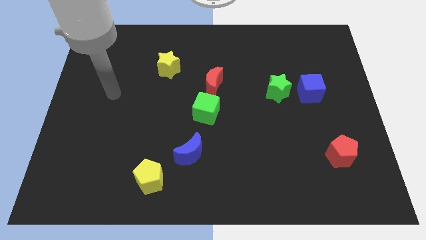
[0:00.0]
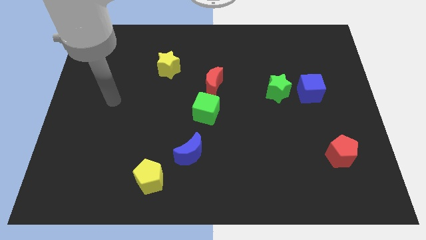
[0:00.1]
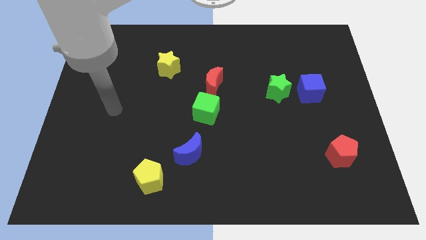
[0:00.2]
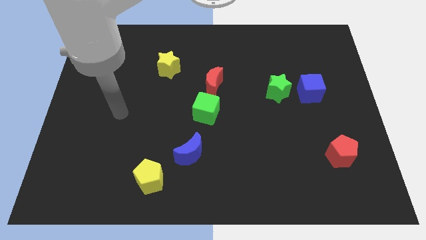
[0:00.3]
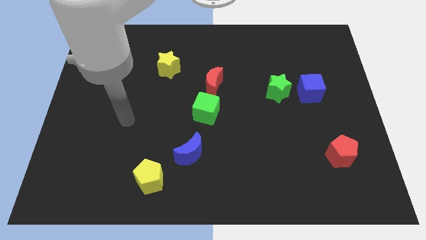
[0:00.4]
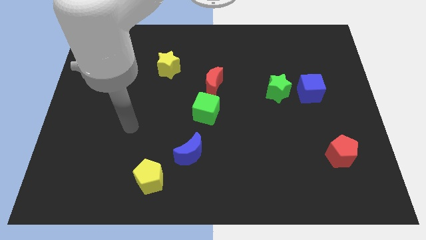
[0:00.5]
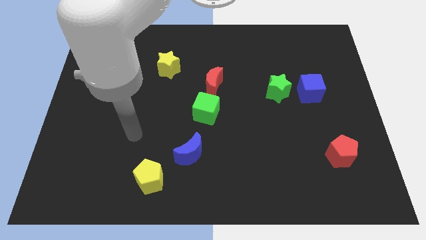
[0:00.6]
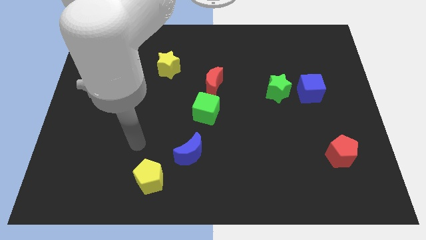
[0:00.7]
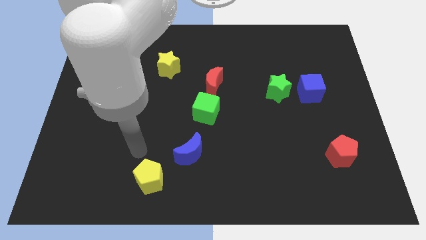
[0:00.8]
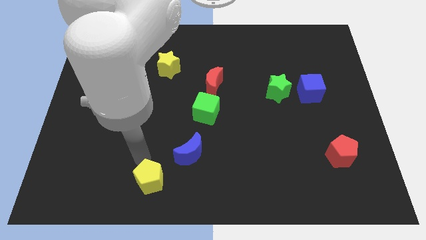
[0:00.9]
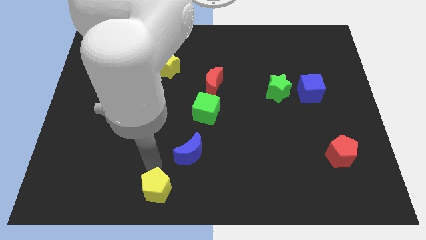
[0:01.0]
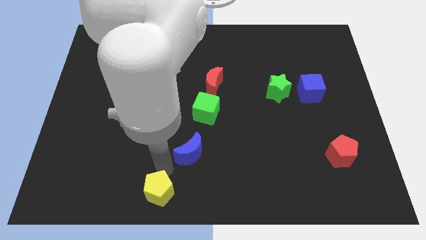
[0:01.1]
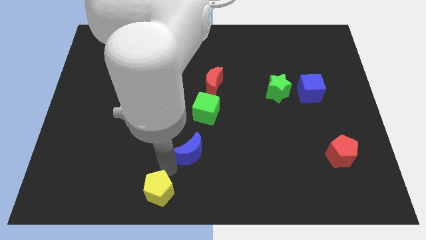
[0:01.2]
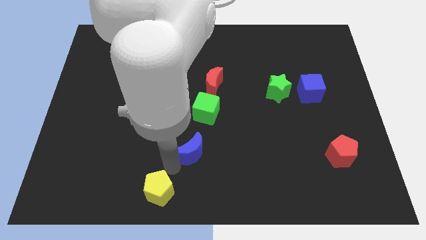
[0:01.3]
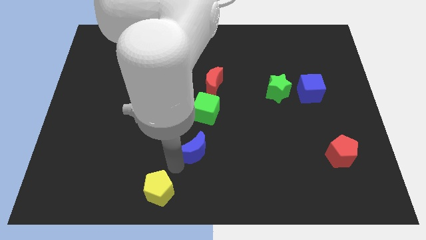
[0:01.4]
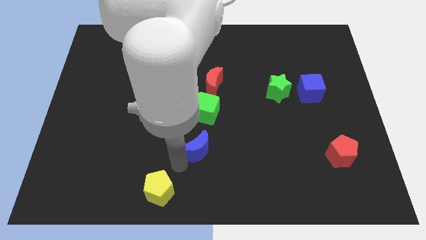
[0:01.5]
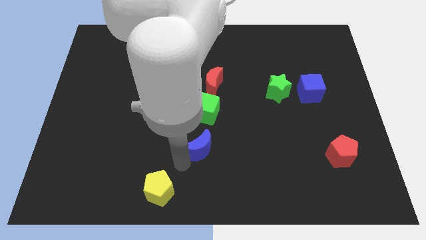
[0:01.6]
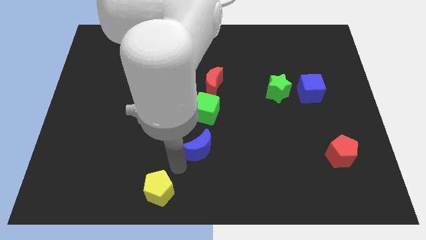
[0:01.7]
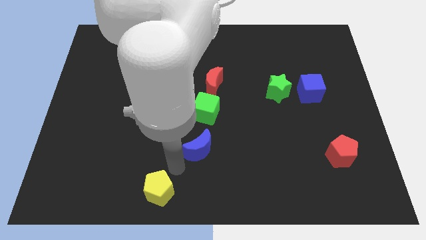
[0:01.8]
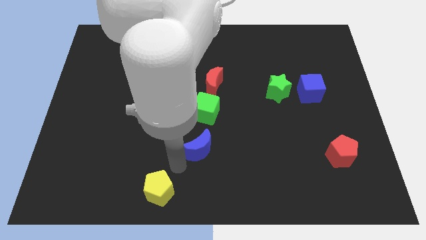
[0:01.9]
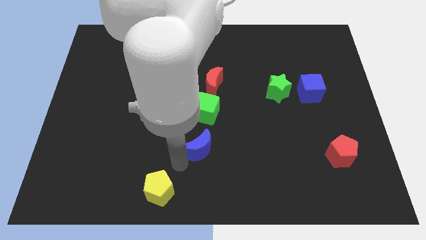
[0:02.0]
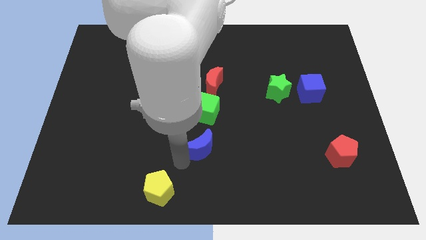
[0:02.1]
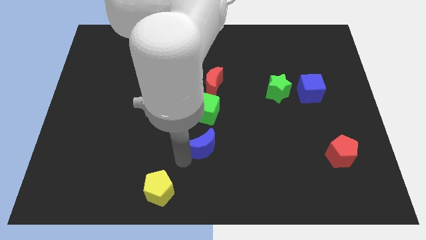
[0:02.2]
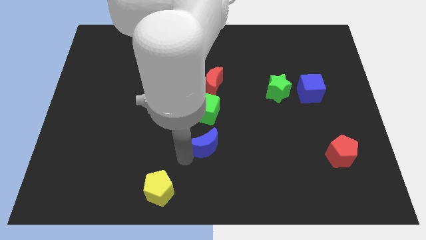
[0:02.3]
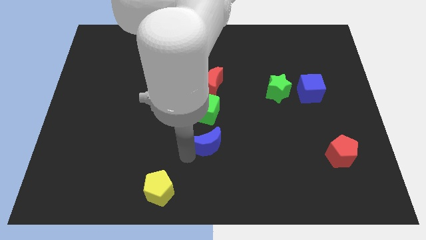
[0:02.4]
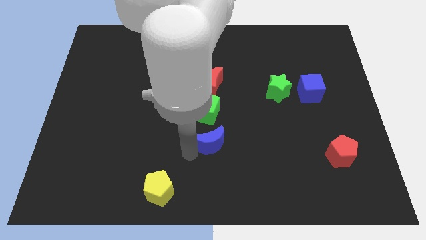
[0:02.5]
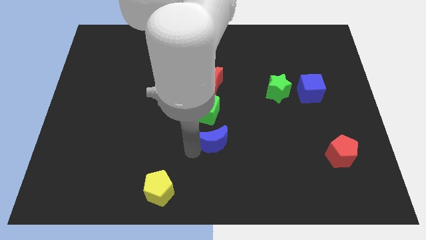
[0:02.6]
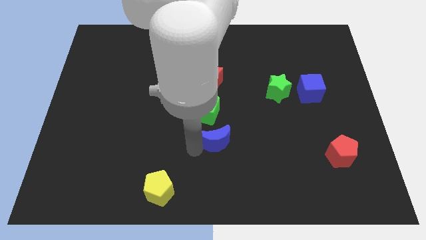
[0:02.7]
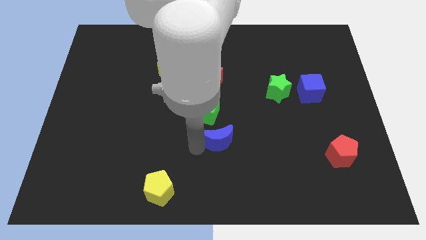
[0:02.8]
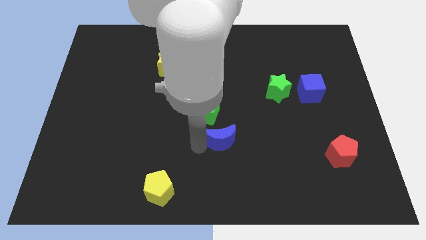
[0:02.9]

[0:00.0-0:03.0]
push the blue moon up and then right a little bit

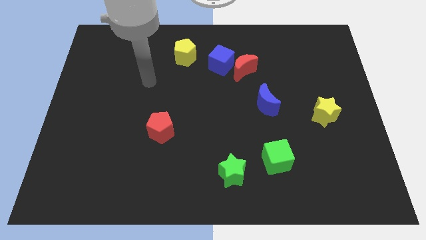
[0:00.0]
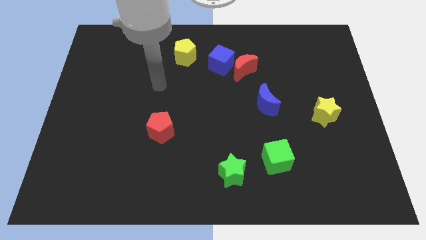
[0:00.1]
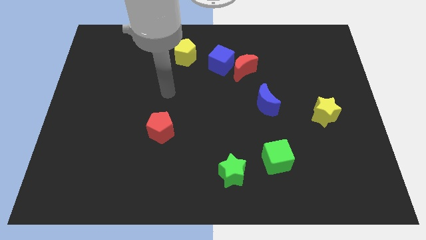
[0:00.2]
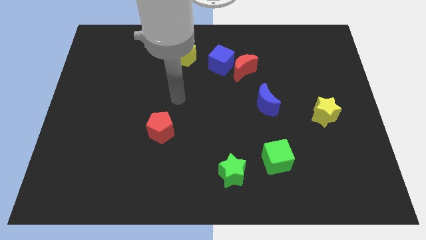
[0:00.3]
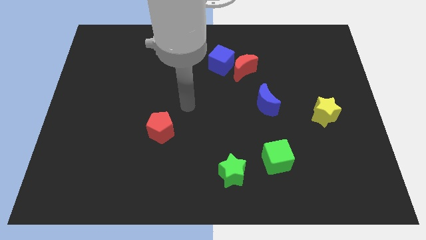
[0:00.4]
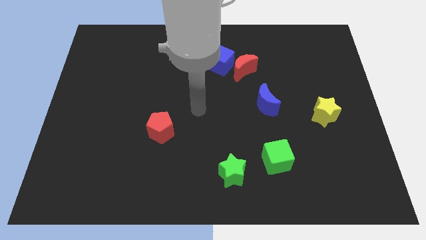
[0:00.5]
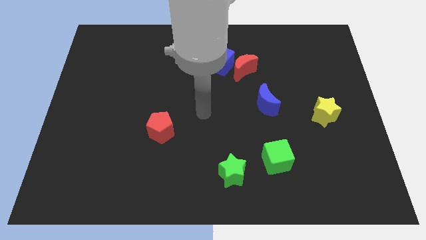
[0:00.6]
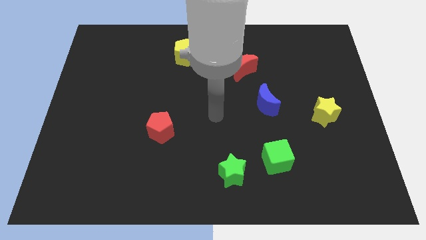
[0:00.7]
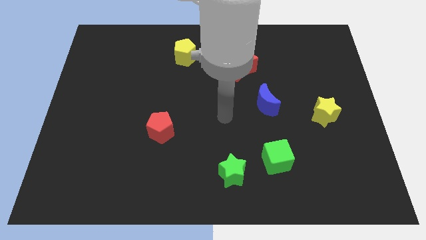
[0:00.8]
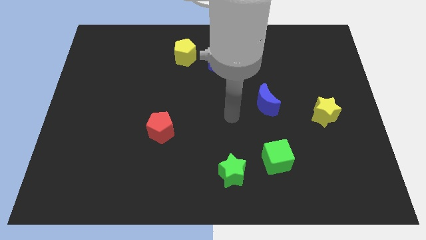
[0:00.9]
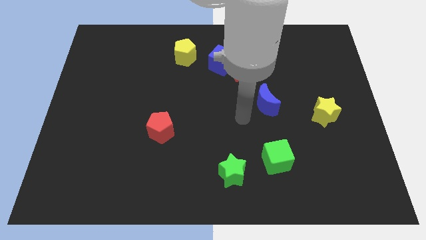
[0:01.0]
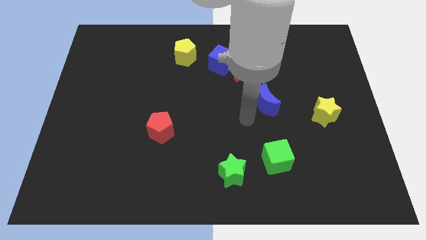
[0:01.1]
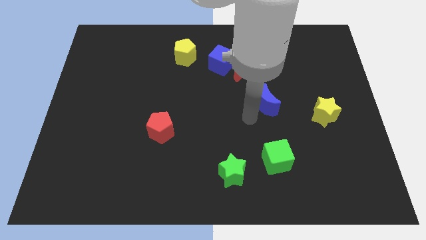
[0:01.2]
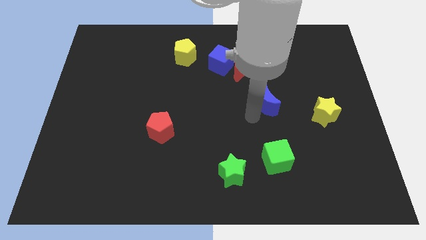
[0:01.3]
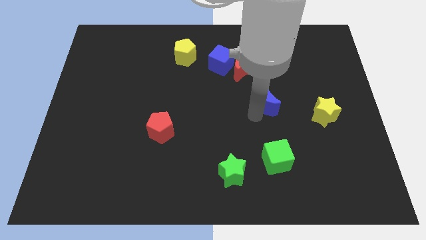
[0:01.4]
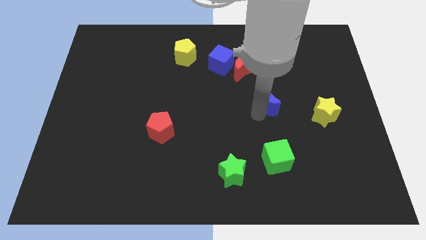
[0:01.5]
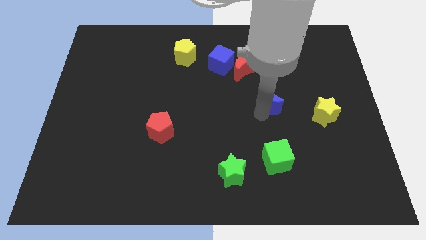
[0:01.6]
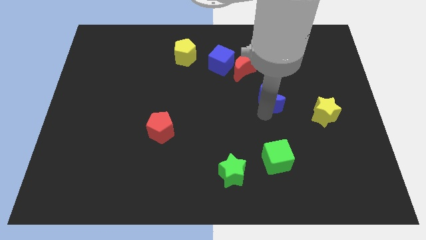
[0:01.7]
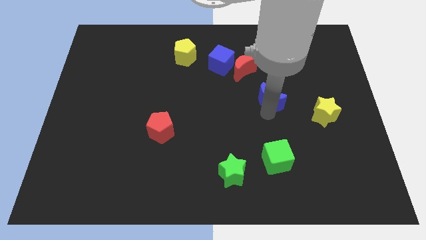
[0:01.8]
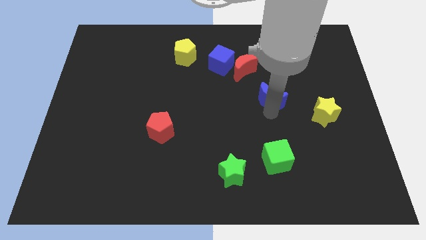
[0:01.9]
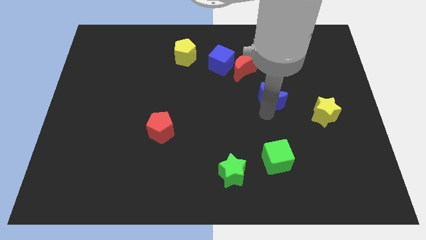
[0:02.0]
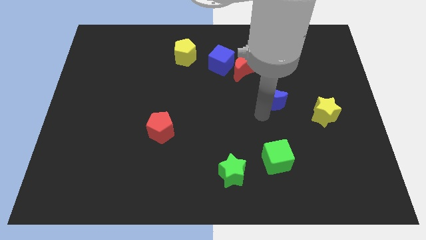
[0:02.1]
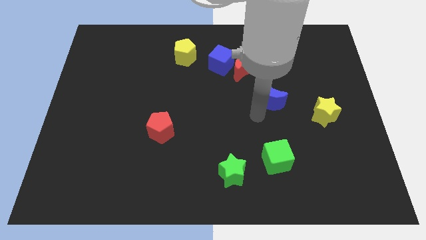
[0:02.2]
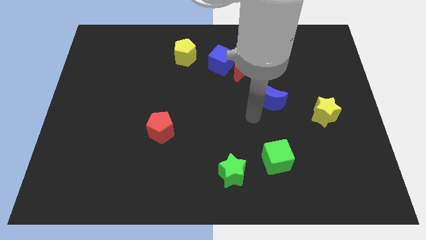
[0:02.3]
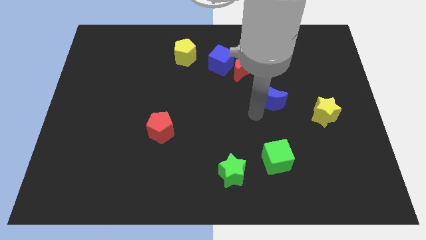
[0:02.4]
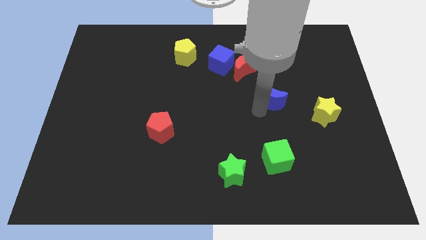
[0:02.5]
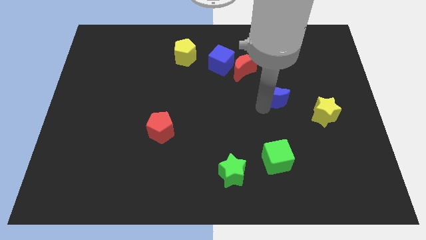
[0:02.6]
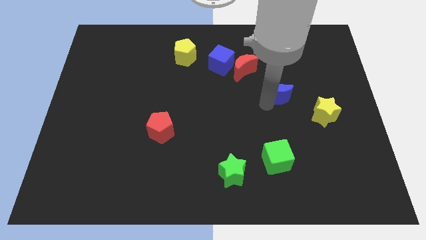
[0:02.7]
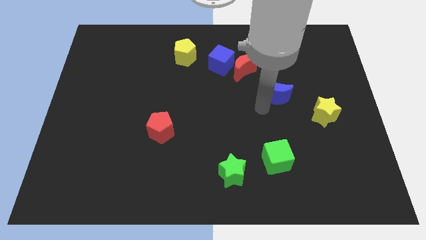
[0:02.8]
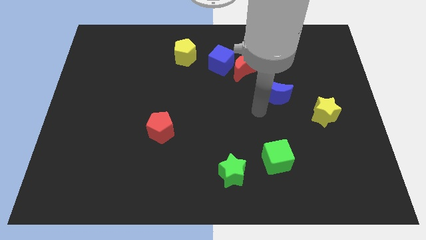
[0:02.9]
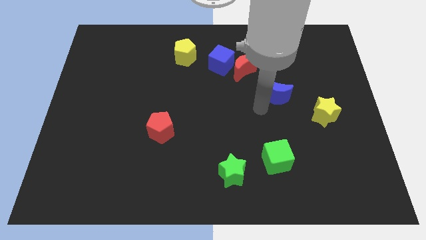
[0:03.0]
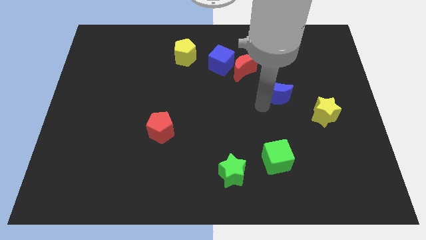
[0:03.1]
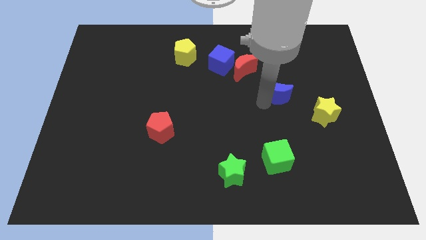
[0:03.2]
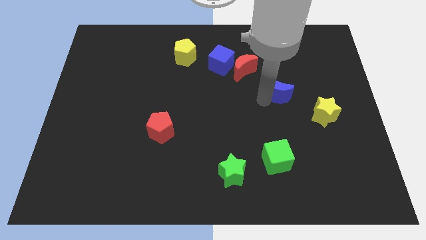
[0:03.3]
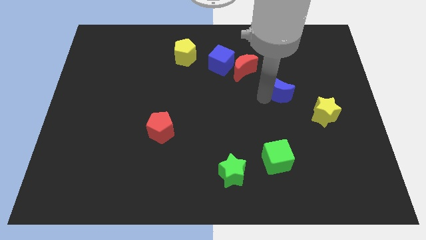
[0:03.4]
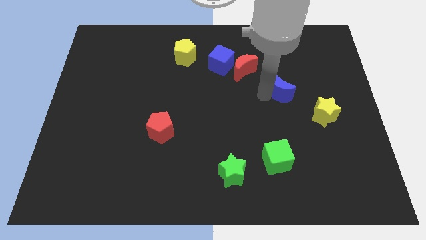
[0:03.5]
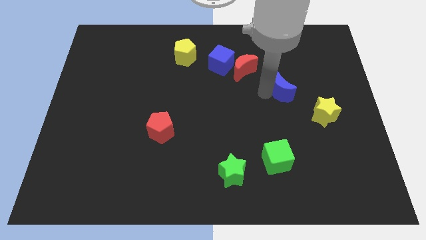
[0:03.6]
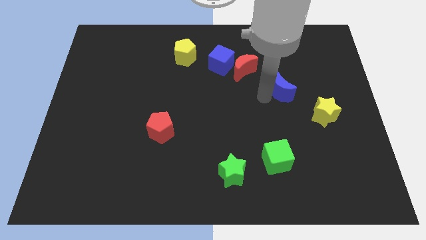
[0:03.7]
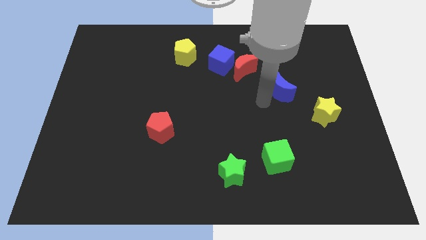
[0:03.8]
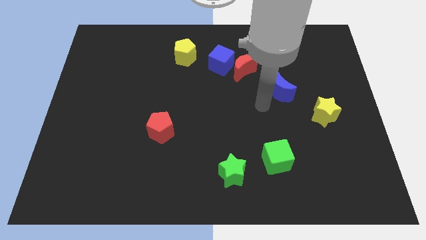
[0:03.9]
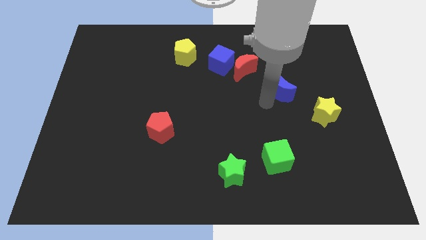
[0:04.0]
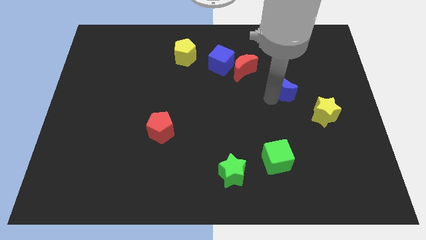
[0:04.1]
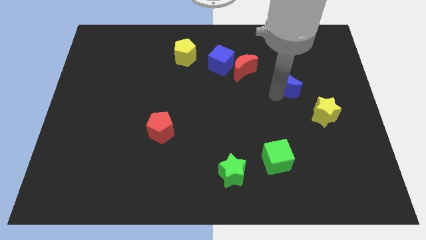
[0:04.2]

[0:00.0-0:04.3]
push the blue moon somewhat upwards and to the right

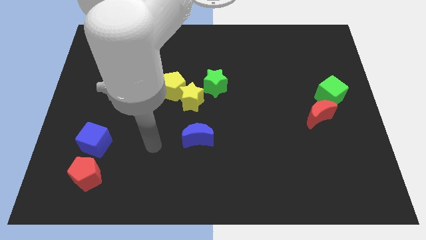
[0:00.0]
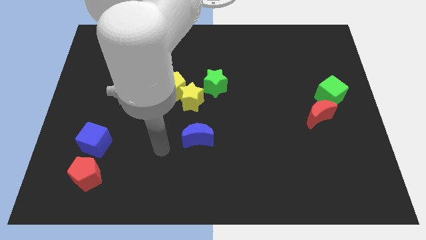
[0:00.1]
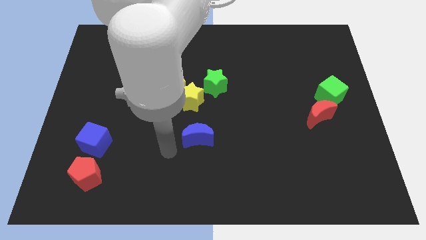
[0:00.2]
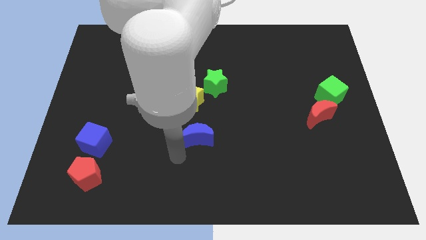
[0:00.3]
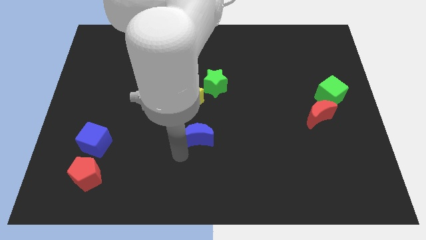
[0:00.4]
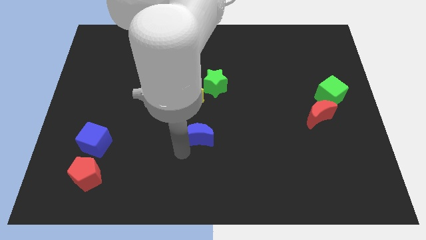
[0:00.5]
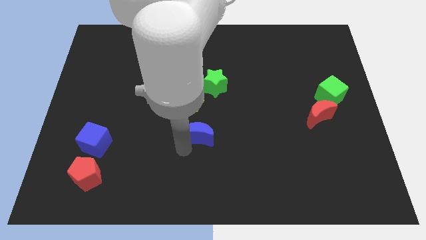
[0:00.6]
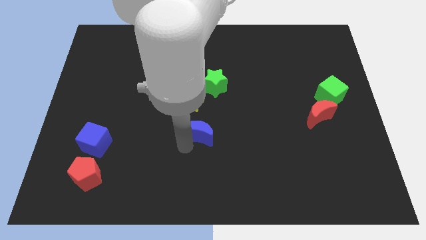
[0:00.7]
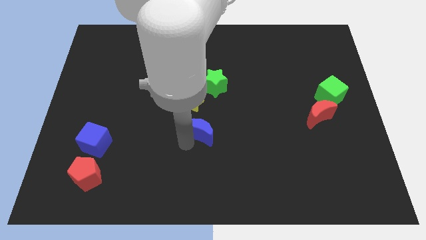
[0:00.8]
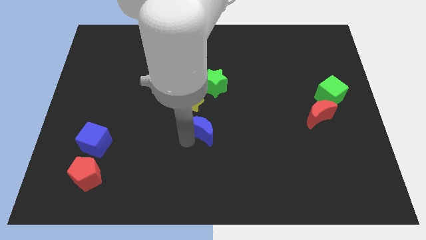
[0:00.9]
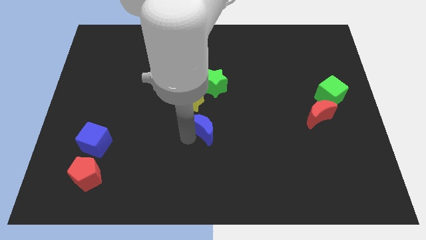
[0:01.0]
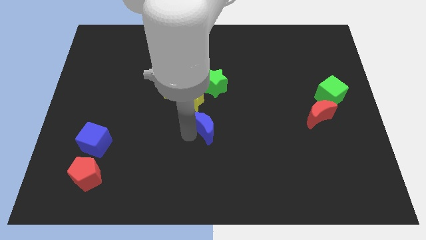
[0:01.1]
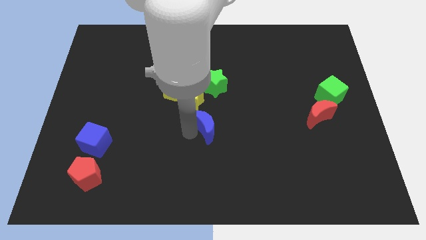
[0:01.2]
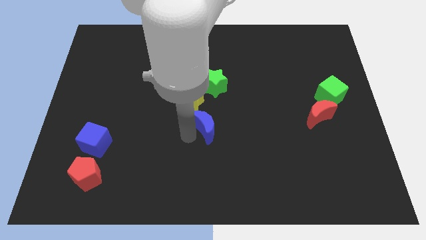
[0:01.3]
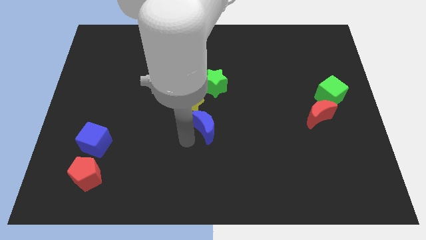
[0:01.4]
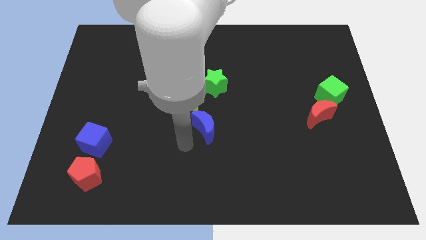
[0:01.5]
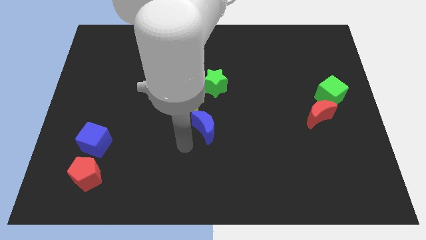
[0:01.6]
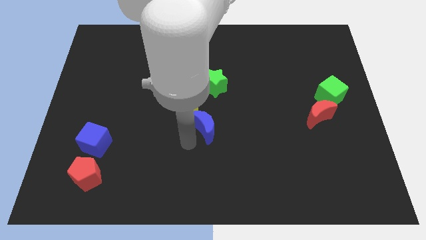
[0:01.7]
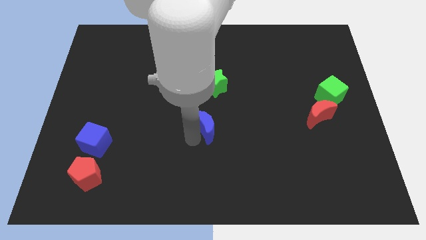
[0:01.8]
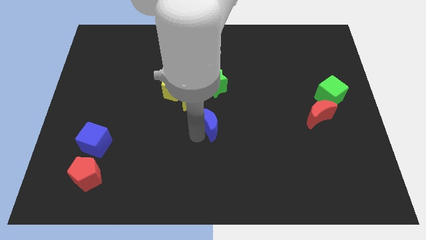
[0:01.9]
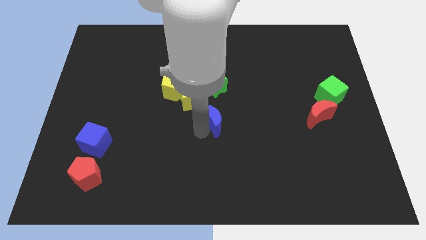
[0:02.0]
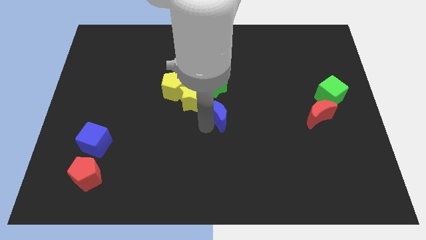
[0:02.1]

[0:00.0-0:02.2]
slightly move the blue moon up and right
